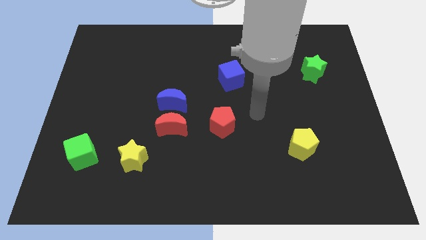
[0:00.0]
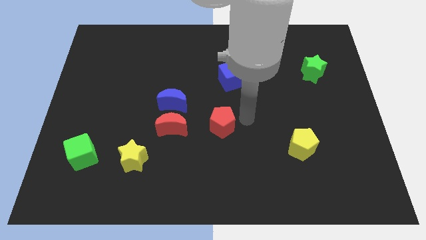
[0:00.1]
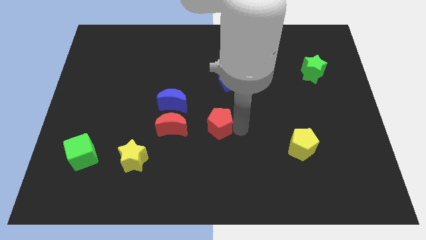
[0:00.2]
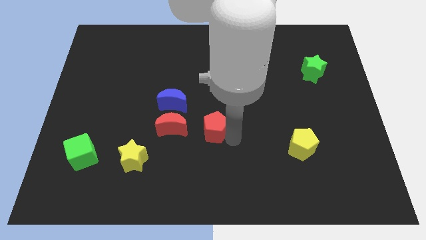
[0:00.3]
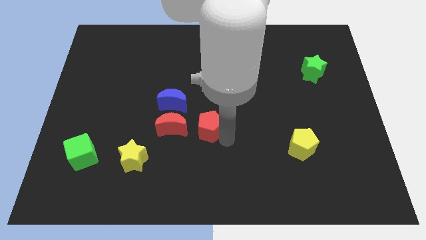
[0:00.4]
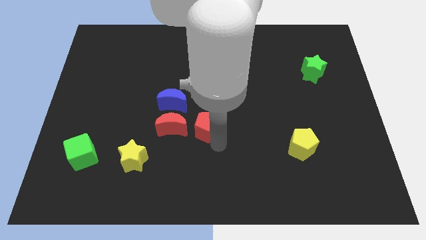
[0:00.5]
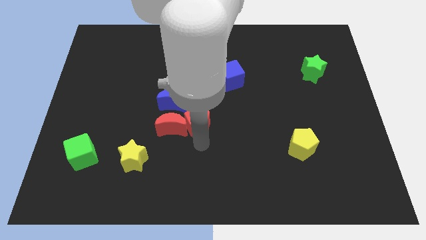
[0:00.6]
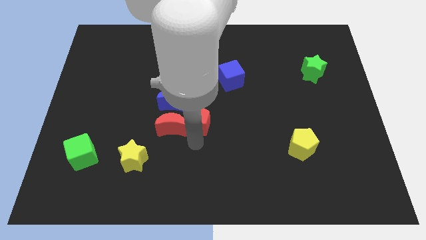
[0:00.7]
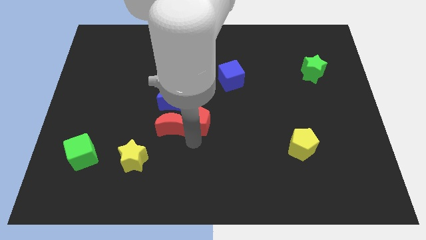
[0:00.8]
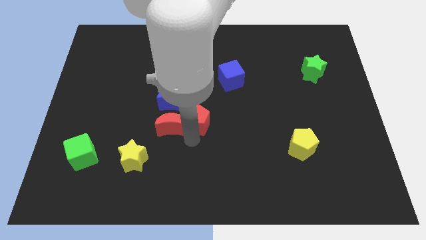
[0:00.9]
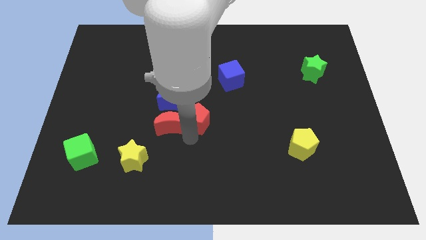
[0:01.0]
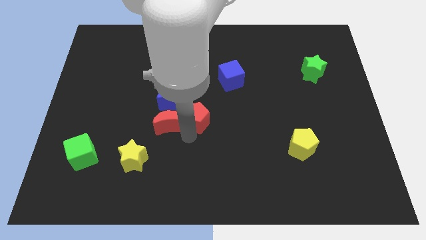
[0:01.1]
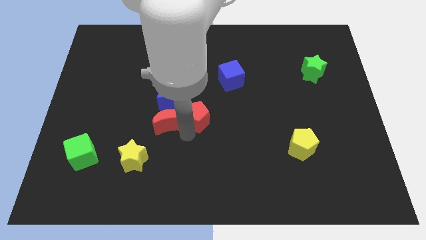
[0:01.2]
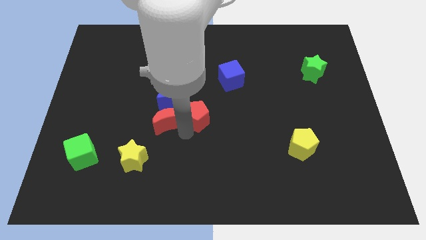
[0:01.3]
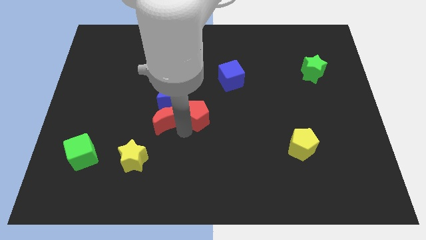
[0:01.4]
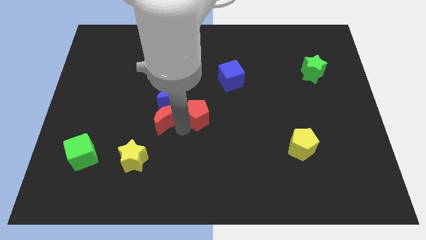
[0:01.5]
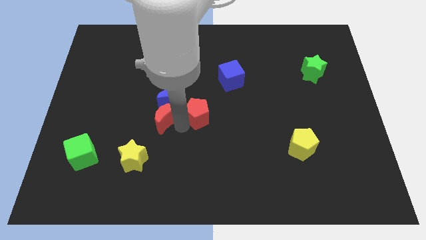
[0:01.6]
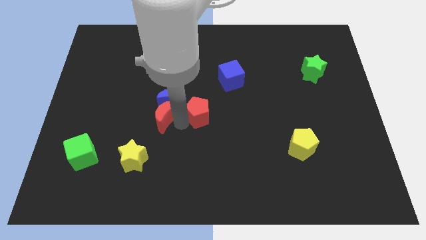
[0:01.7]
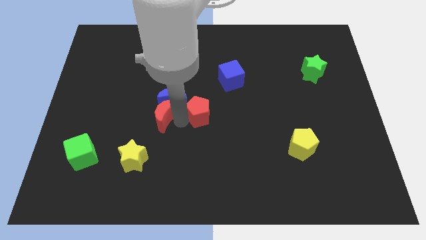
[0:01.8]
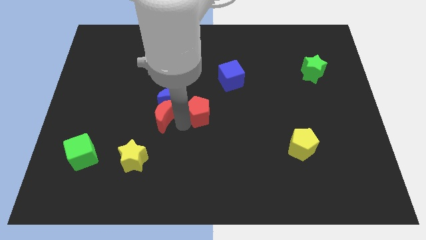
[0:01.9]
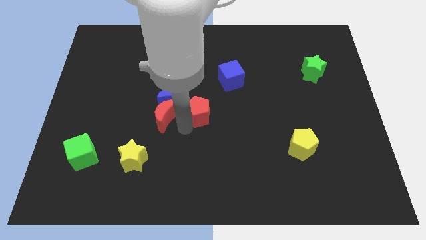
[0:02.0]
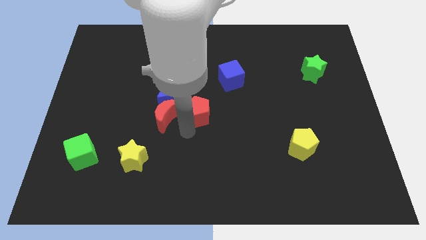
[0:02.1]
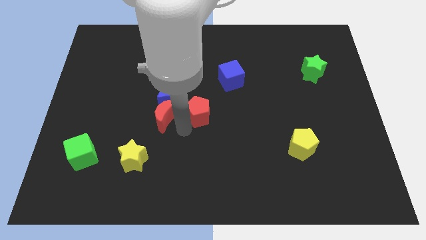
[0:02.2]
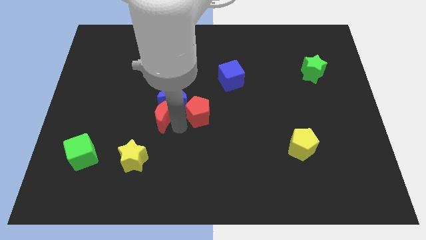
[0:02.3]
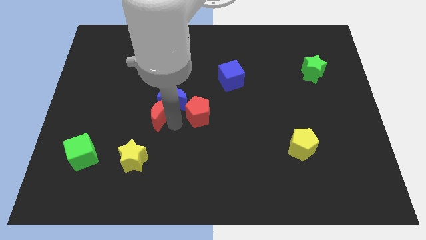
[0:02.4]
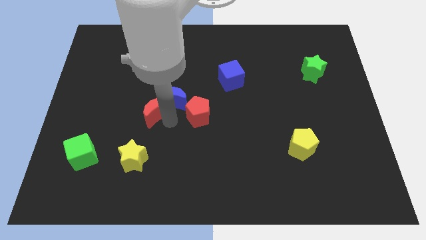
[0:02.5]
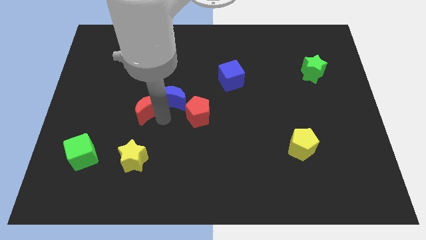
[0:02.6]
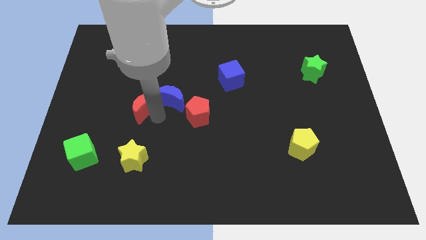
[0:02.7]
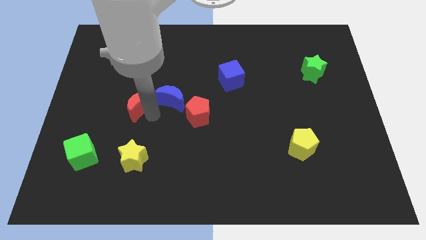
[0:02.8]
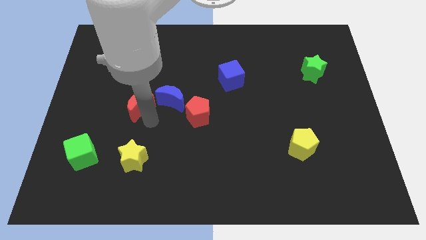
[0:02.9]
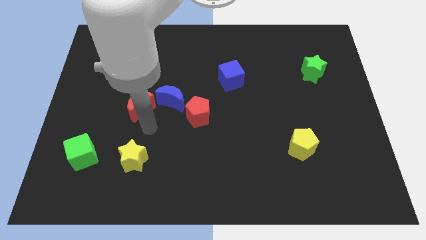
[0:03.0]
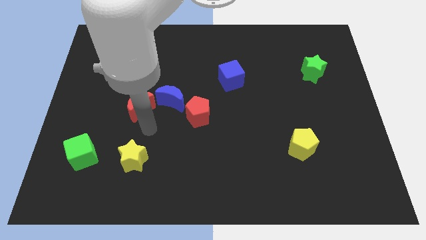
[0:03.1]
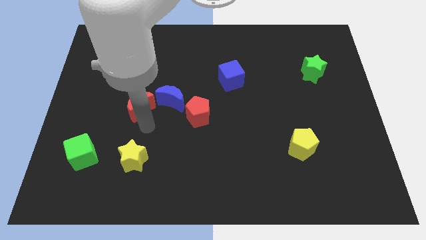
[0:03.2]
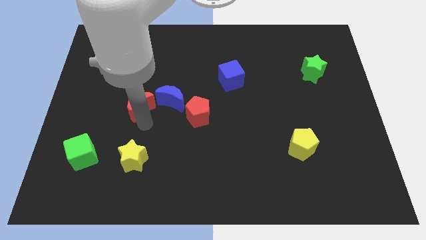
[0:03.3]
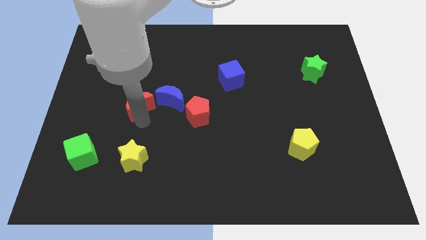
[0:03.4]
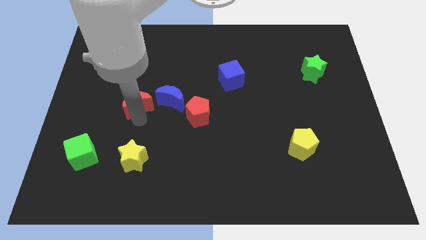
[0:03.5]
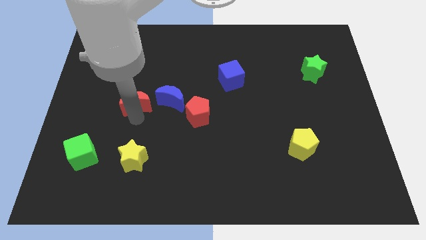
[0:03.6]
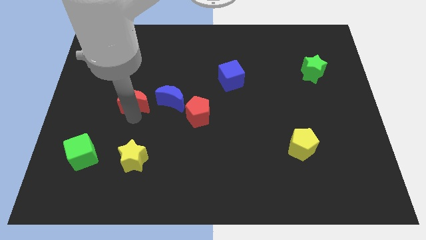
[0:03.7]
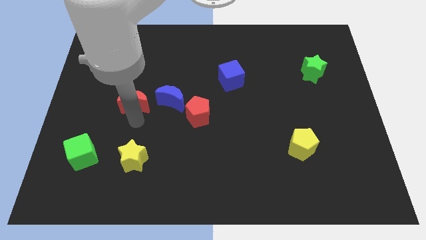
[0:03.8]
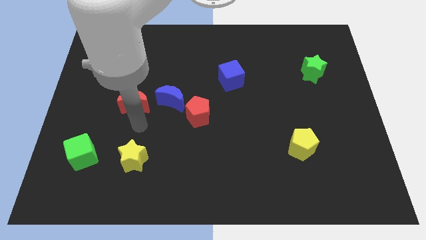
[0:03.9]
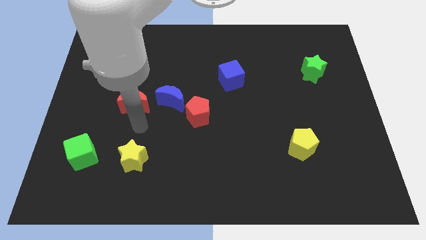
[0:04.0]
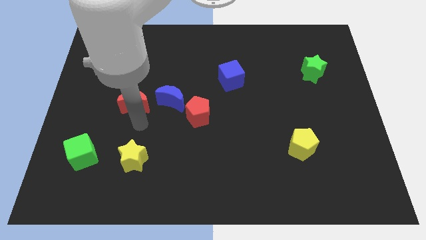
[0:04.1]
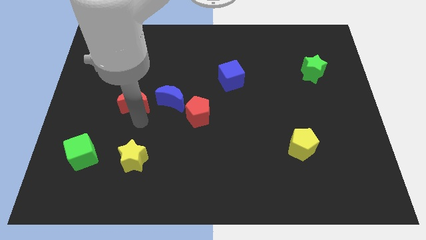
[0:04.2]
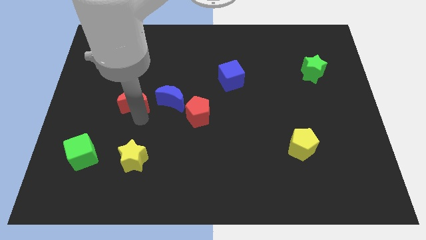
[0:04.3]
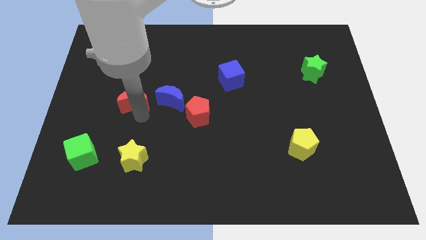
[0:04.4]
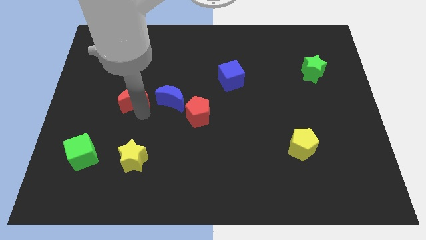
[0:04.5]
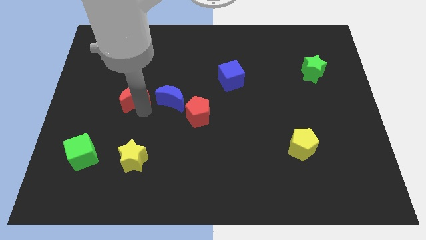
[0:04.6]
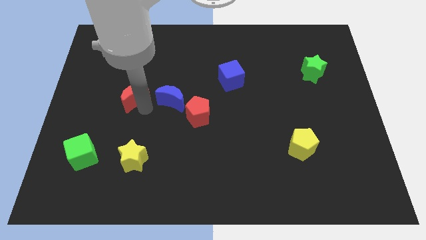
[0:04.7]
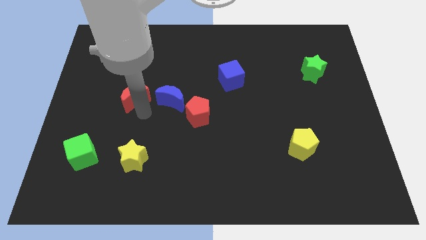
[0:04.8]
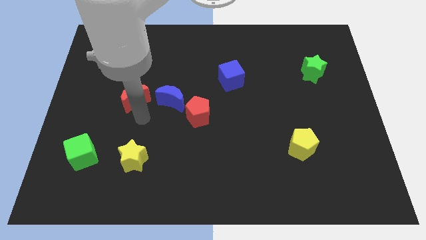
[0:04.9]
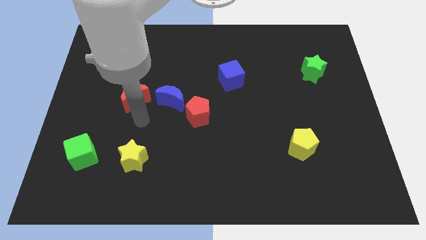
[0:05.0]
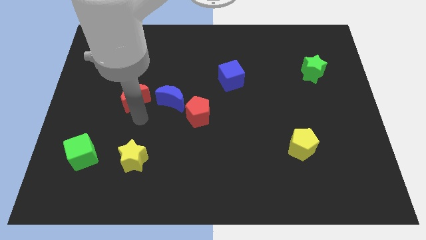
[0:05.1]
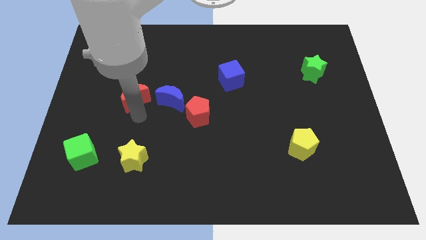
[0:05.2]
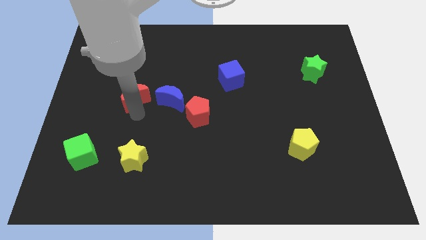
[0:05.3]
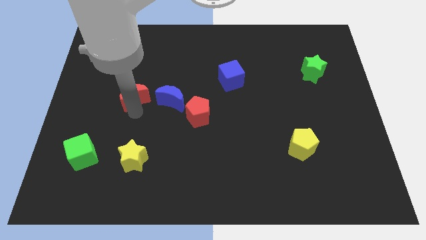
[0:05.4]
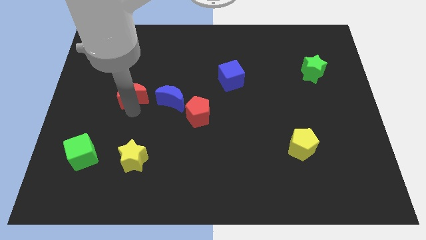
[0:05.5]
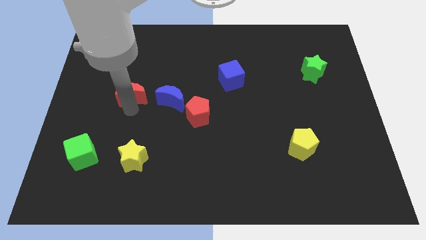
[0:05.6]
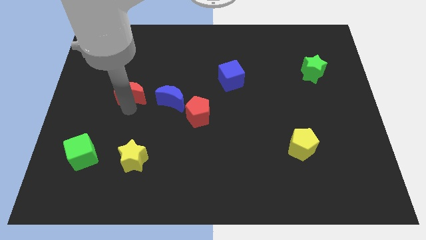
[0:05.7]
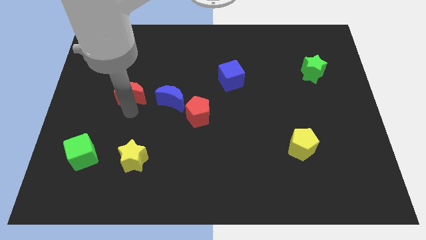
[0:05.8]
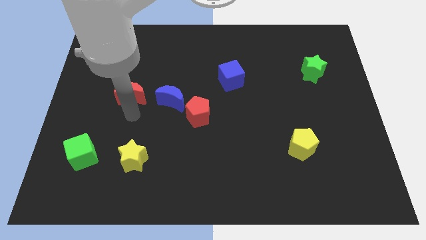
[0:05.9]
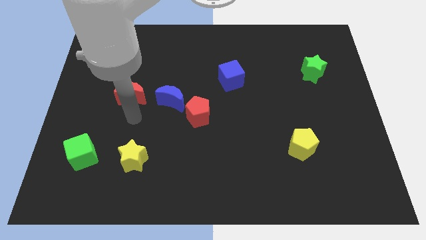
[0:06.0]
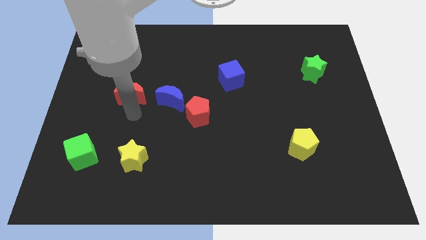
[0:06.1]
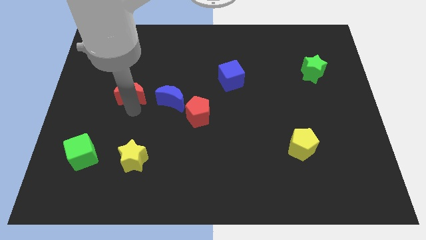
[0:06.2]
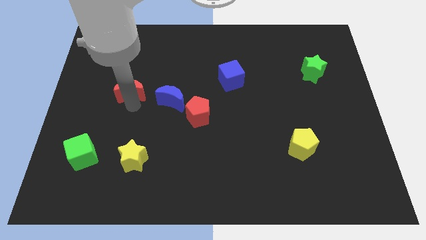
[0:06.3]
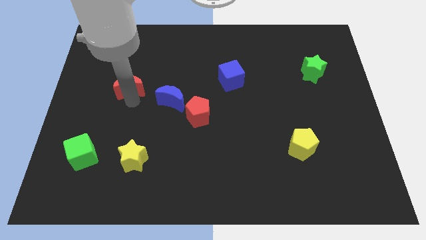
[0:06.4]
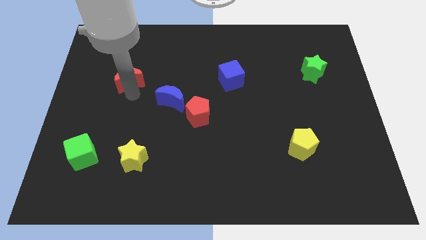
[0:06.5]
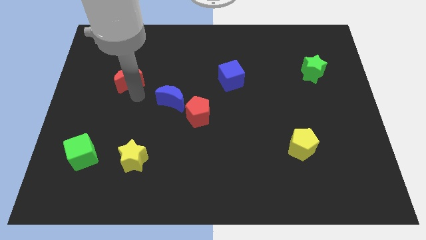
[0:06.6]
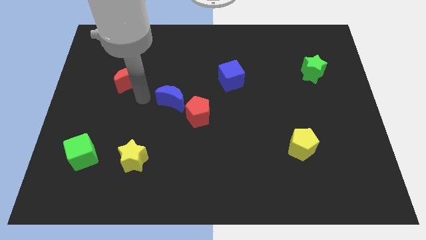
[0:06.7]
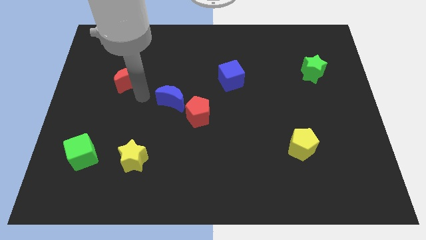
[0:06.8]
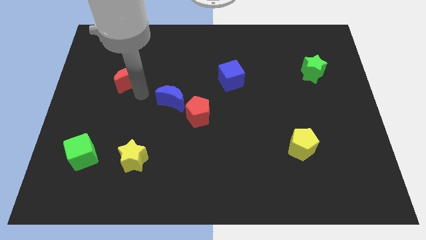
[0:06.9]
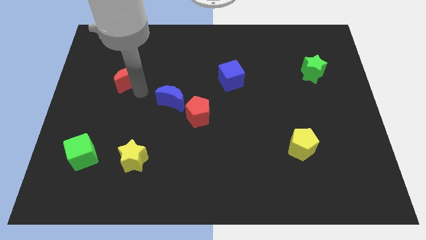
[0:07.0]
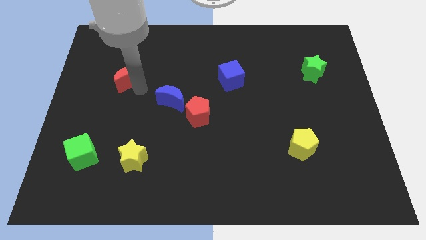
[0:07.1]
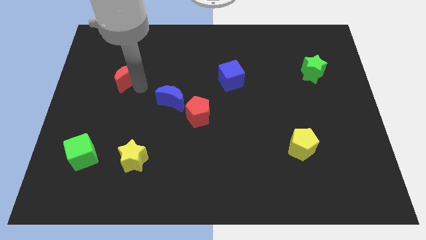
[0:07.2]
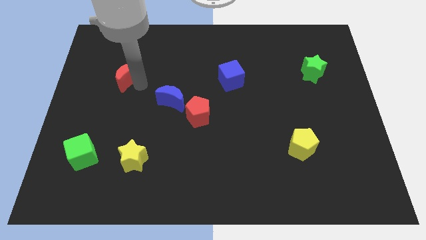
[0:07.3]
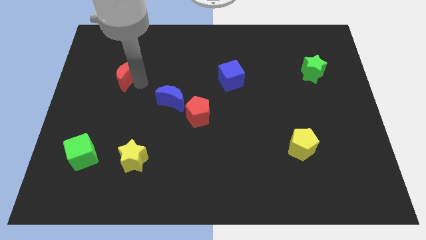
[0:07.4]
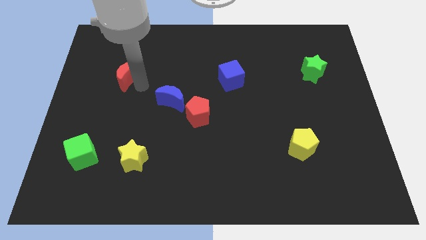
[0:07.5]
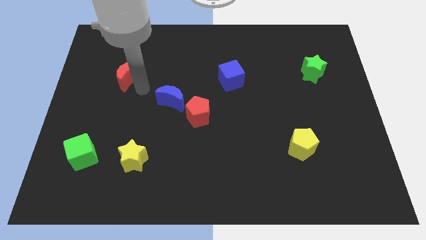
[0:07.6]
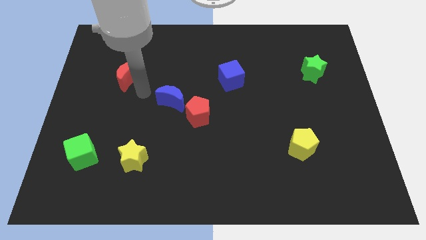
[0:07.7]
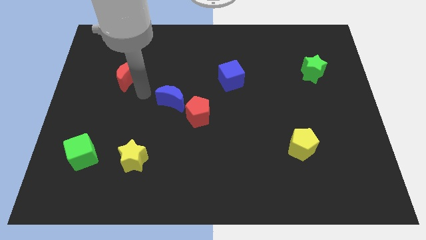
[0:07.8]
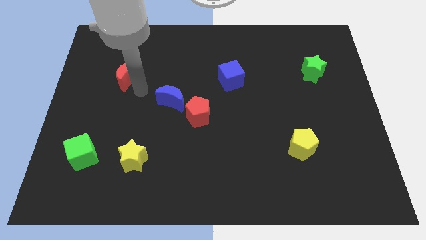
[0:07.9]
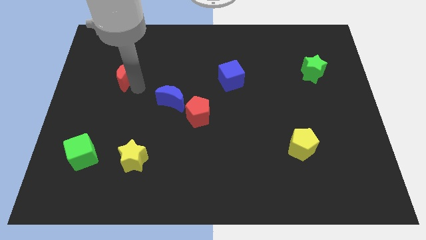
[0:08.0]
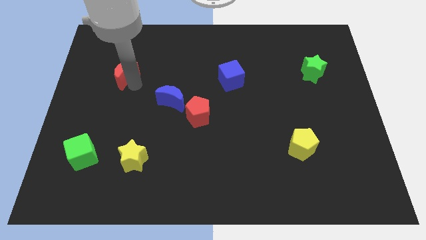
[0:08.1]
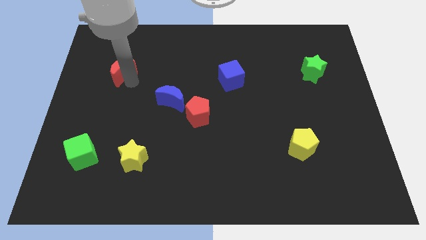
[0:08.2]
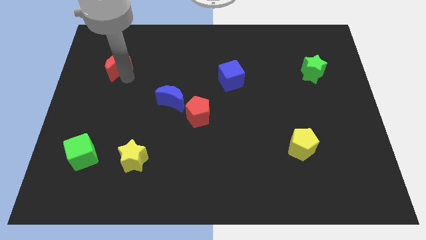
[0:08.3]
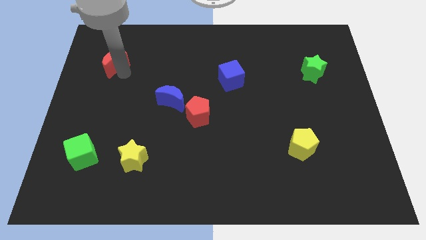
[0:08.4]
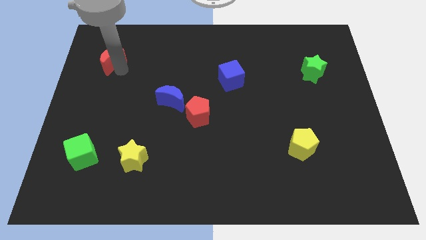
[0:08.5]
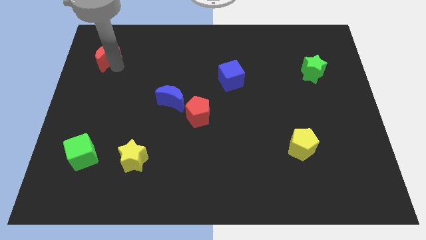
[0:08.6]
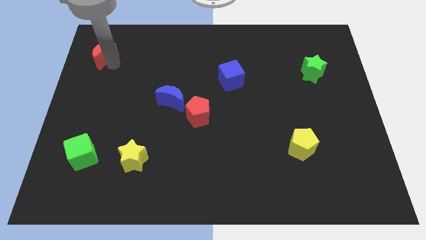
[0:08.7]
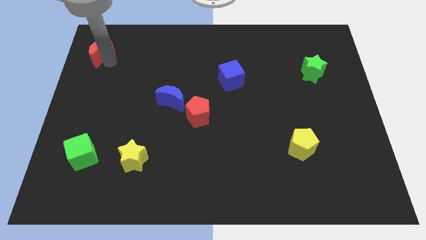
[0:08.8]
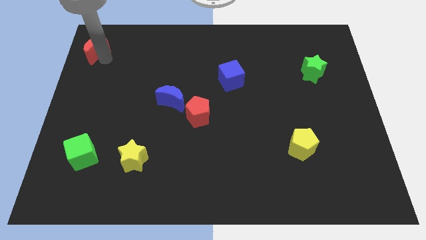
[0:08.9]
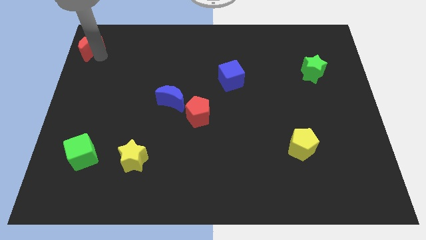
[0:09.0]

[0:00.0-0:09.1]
push the red moon to the top left corner
